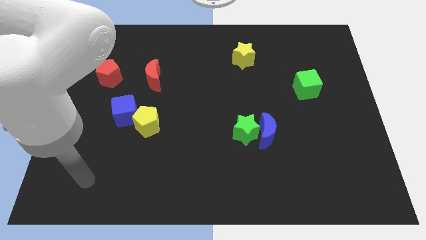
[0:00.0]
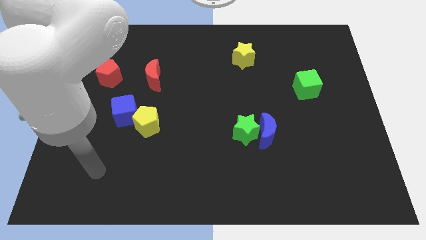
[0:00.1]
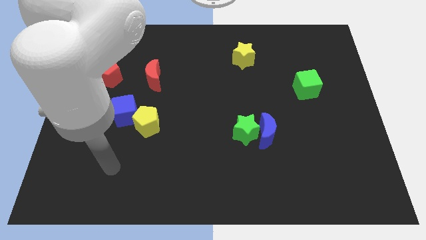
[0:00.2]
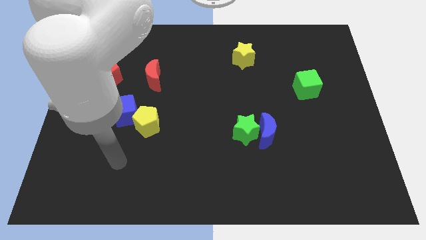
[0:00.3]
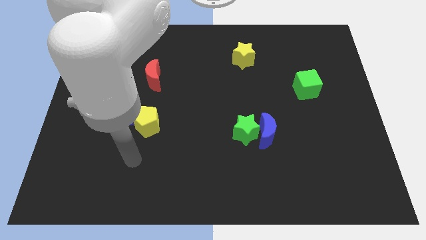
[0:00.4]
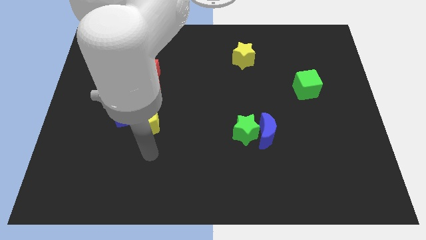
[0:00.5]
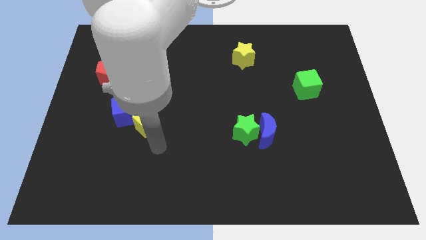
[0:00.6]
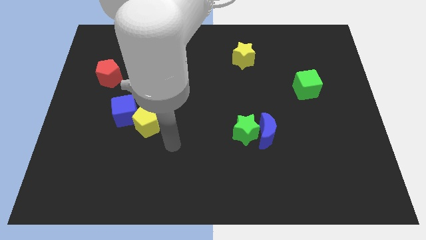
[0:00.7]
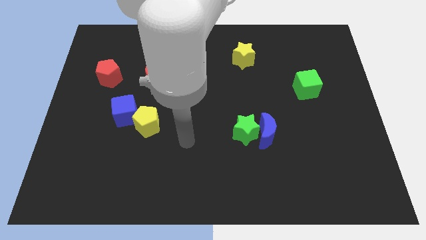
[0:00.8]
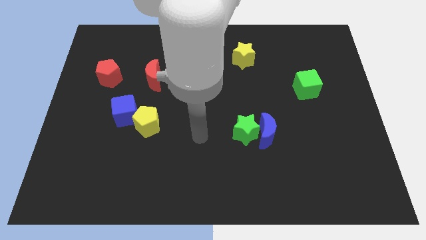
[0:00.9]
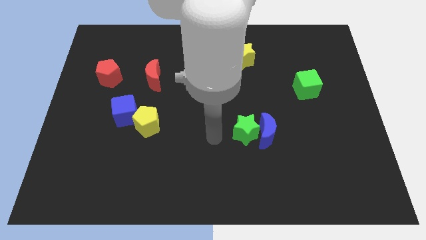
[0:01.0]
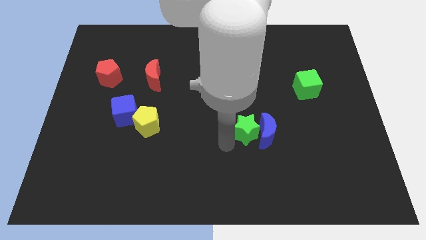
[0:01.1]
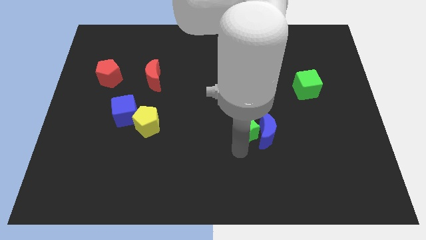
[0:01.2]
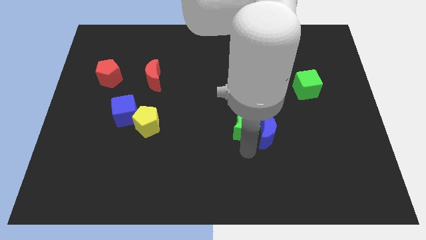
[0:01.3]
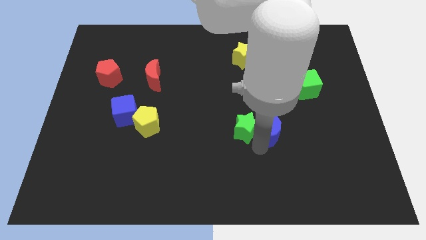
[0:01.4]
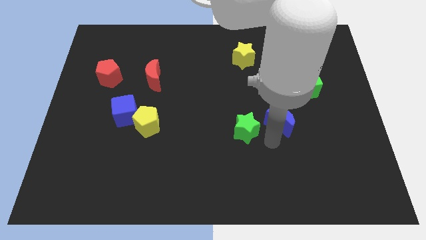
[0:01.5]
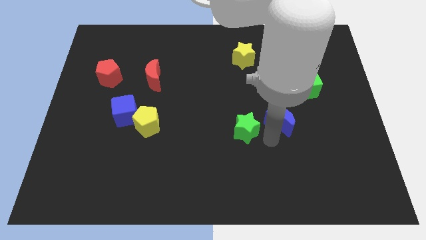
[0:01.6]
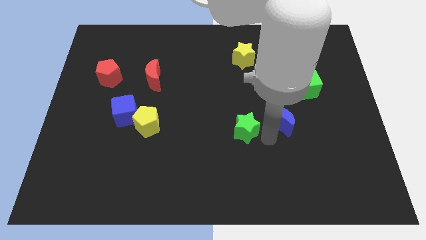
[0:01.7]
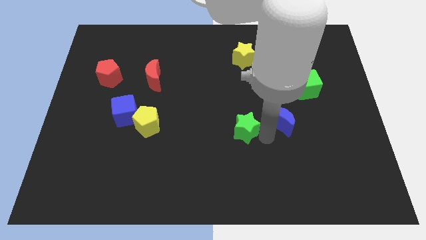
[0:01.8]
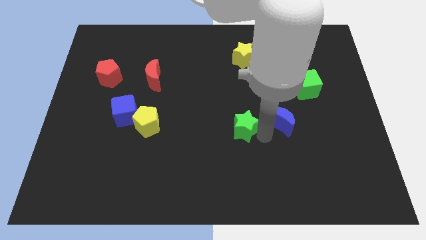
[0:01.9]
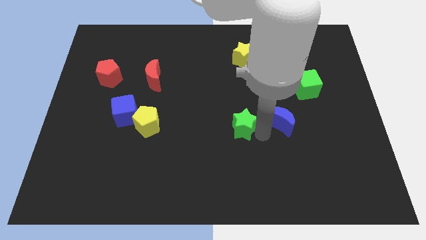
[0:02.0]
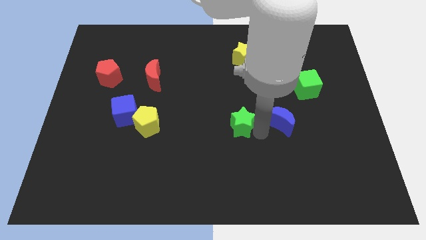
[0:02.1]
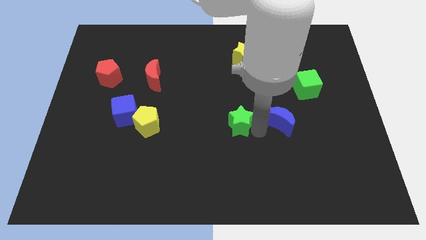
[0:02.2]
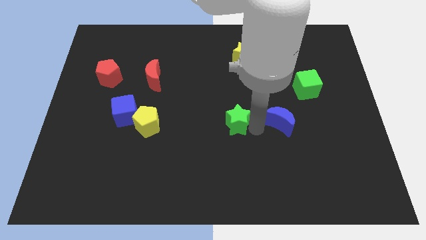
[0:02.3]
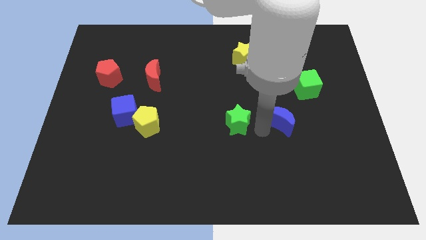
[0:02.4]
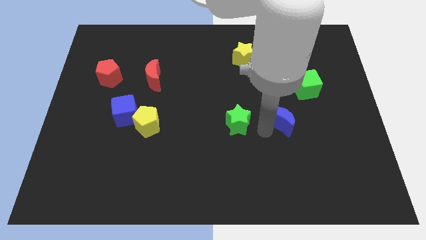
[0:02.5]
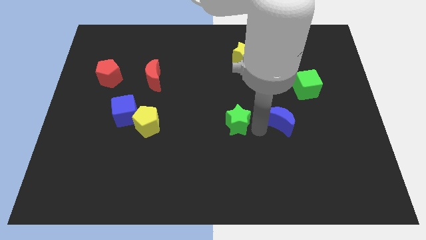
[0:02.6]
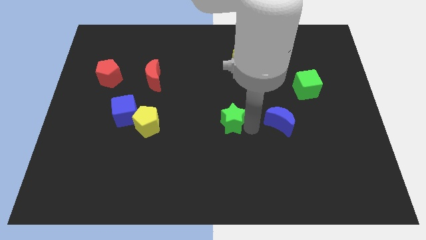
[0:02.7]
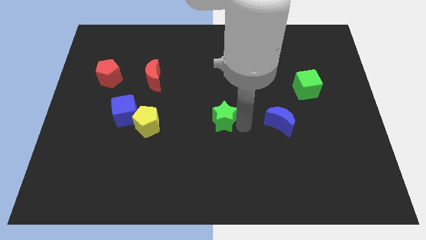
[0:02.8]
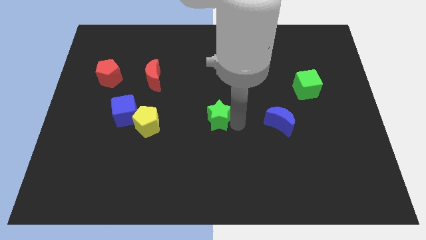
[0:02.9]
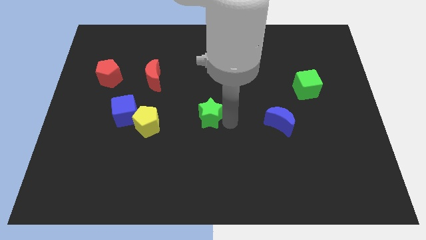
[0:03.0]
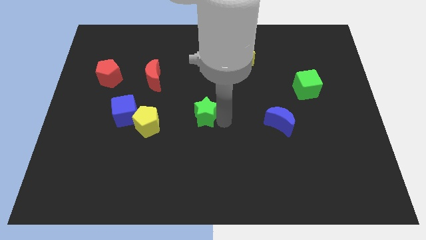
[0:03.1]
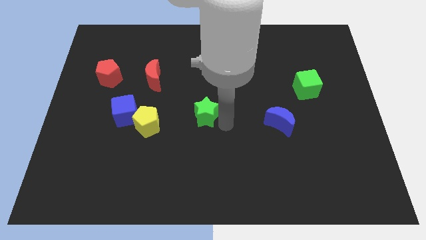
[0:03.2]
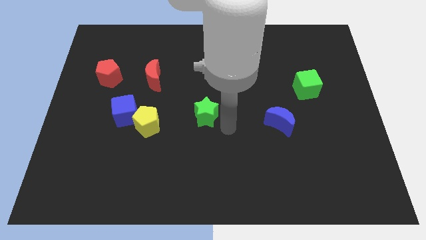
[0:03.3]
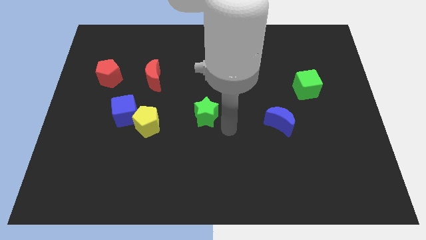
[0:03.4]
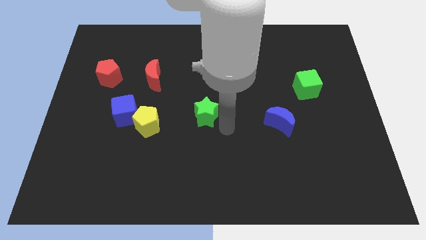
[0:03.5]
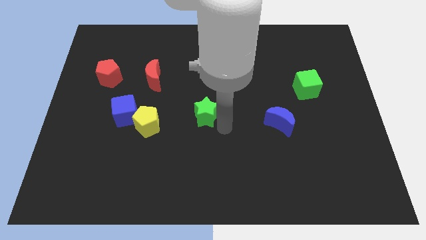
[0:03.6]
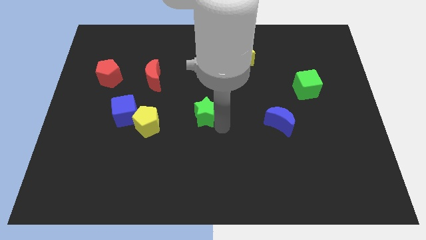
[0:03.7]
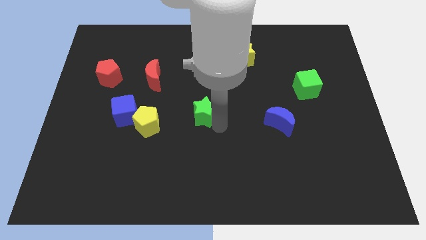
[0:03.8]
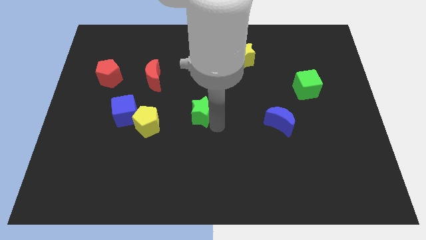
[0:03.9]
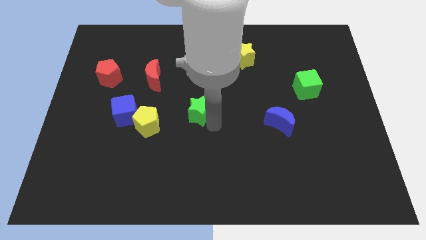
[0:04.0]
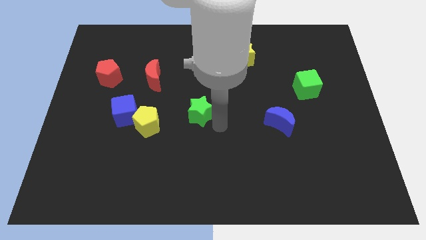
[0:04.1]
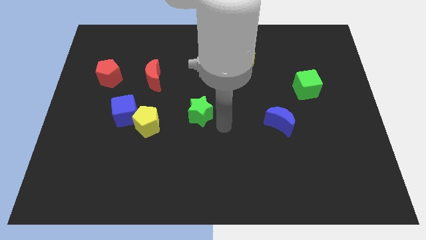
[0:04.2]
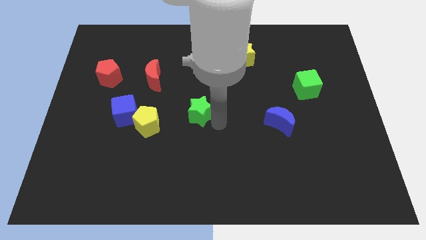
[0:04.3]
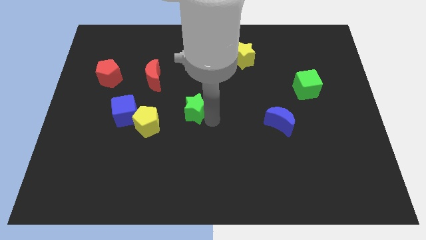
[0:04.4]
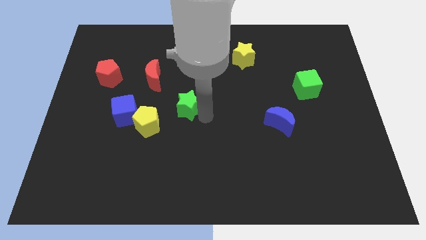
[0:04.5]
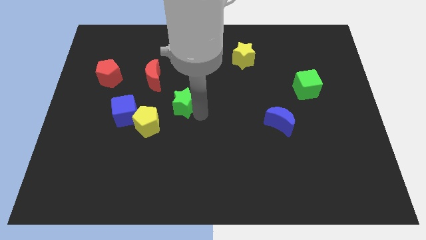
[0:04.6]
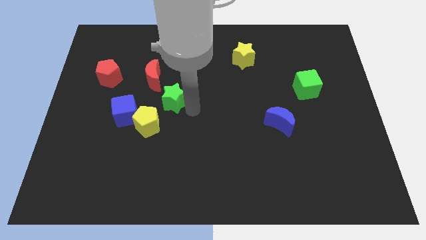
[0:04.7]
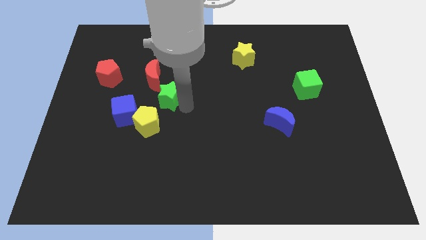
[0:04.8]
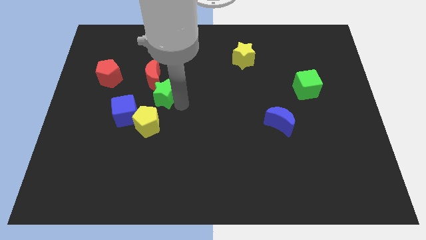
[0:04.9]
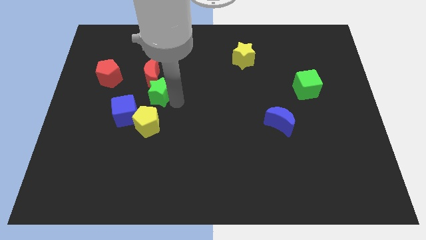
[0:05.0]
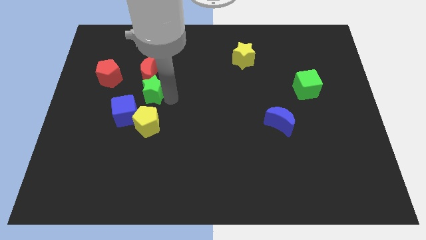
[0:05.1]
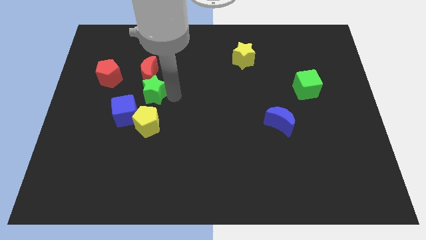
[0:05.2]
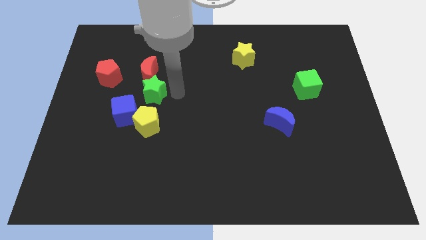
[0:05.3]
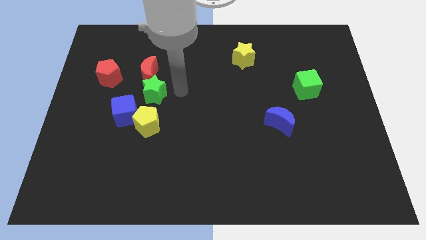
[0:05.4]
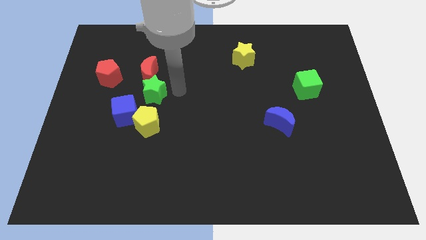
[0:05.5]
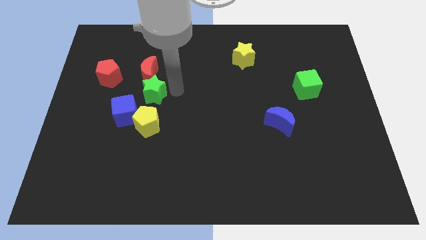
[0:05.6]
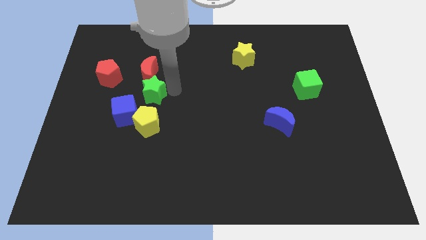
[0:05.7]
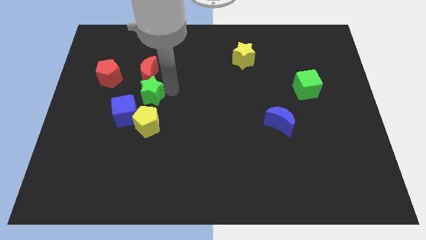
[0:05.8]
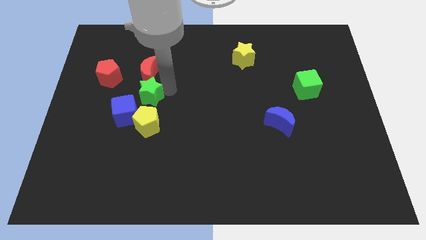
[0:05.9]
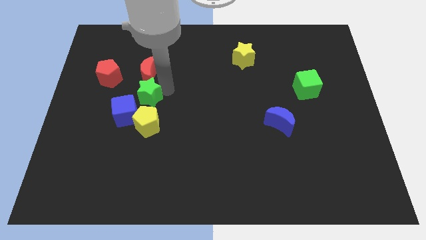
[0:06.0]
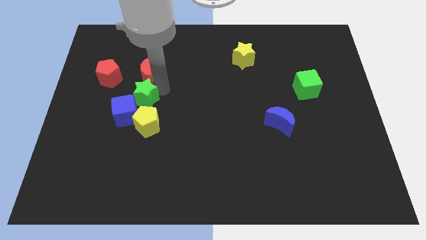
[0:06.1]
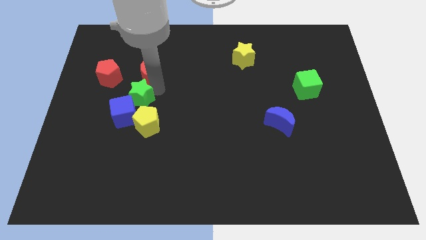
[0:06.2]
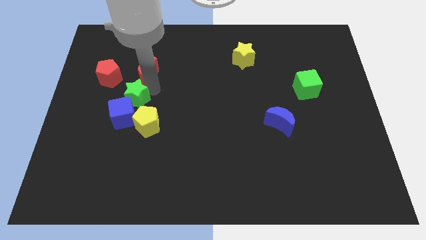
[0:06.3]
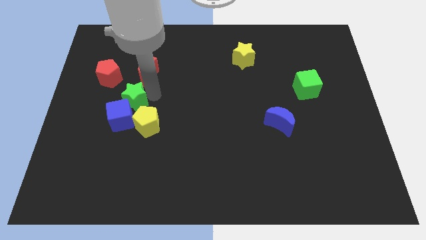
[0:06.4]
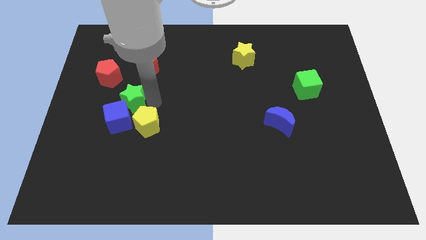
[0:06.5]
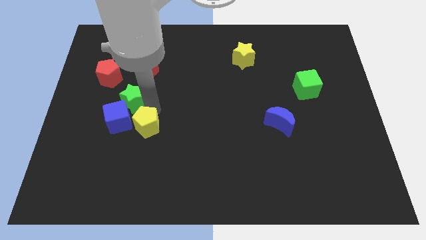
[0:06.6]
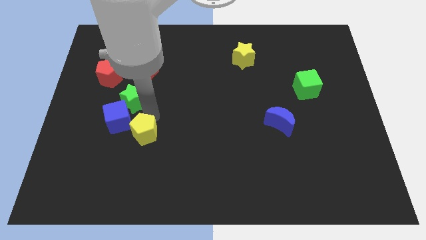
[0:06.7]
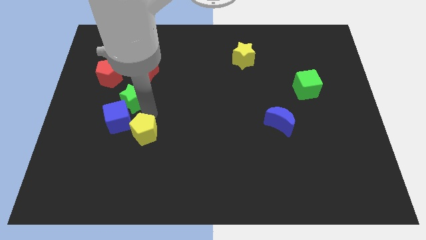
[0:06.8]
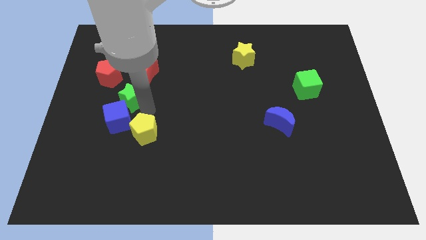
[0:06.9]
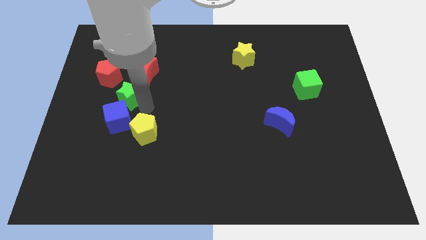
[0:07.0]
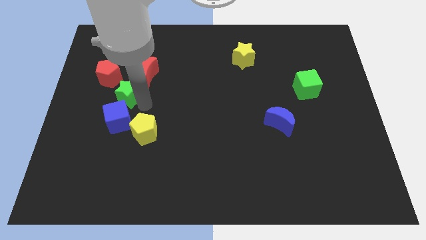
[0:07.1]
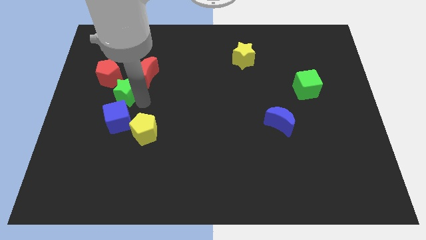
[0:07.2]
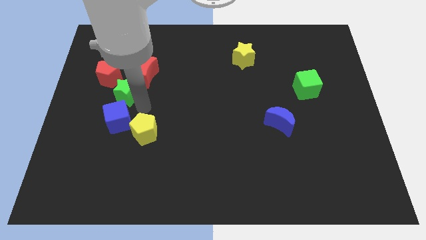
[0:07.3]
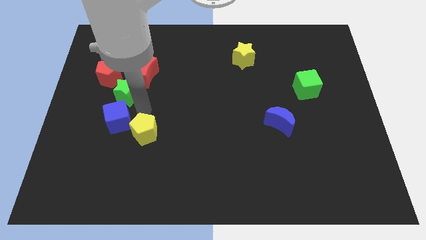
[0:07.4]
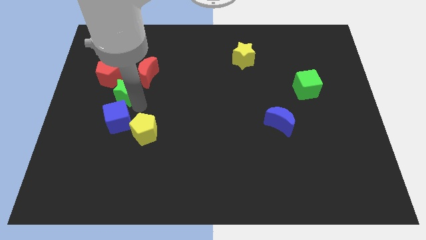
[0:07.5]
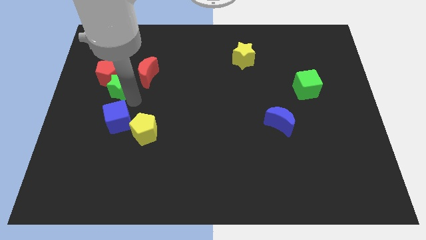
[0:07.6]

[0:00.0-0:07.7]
push the green star next to the red pentagon
